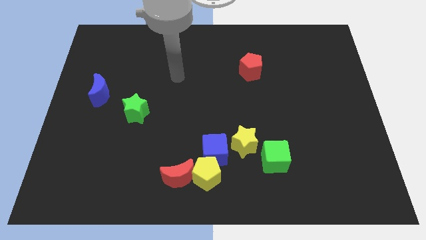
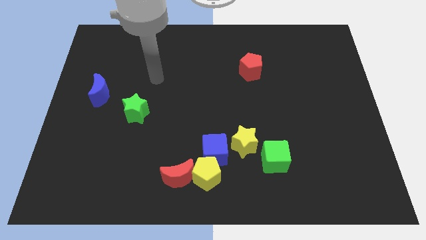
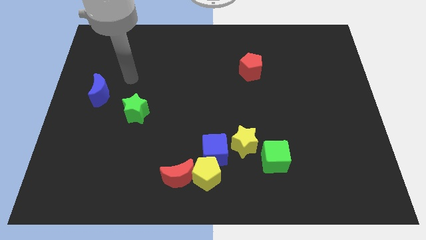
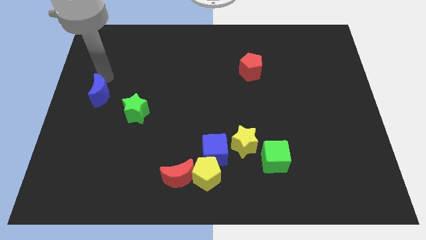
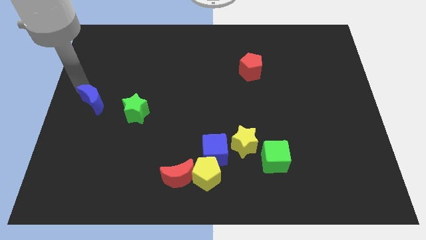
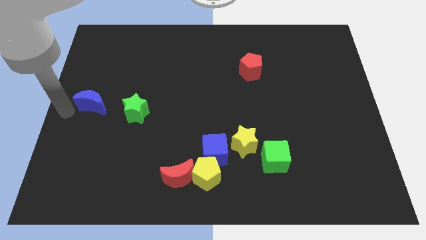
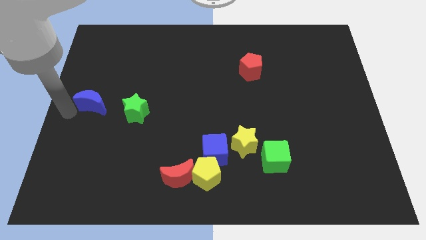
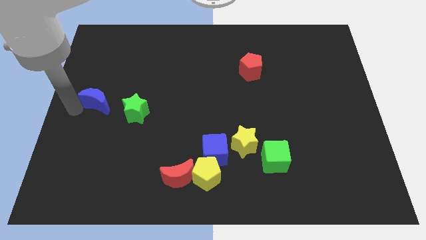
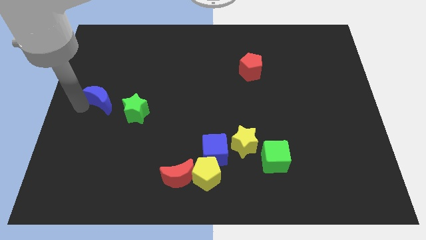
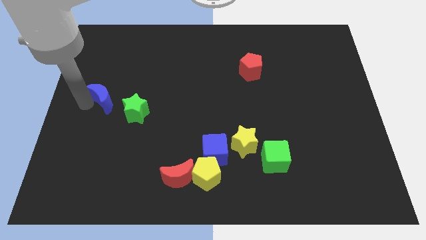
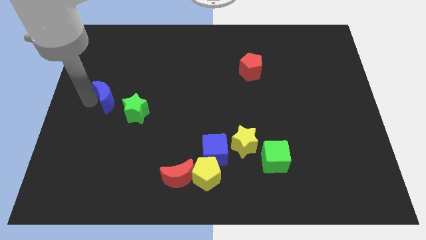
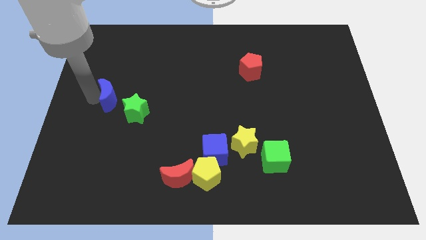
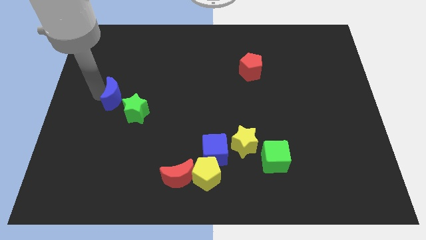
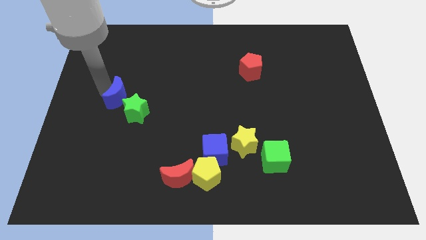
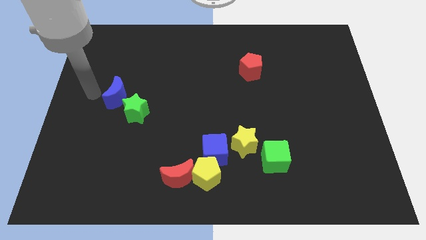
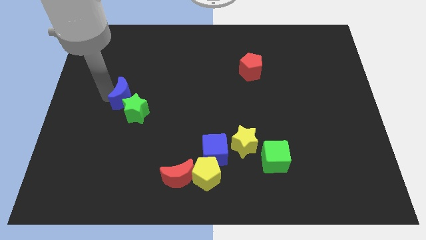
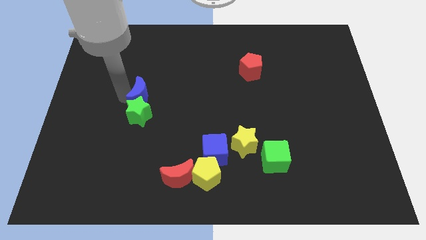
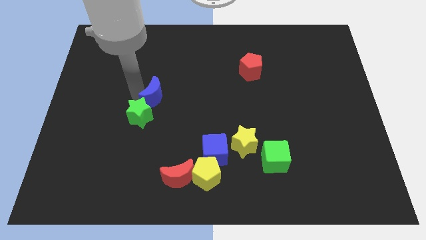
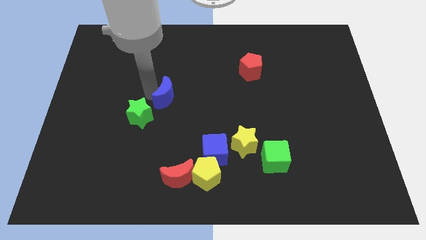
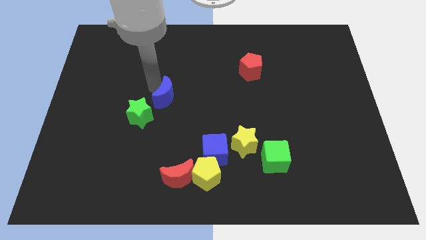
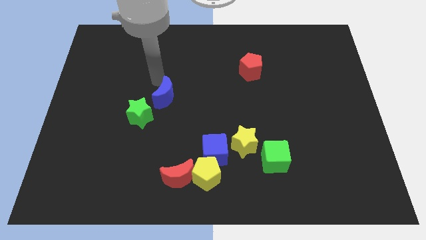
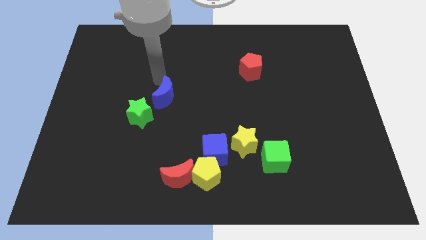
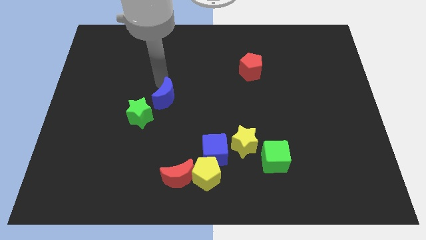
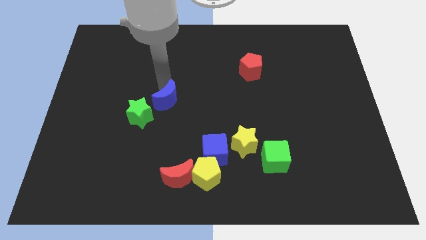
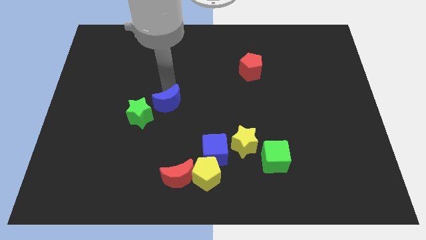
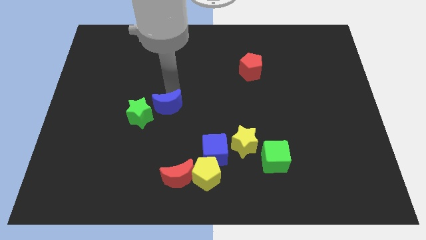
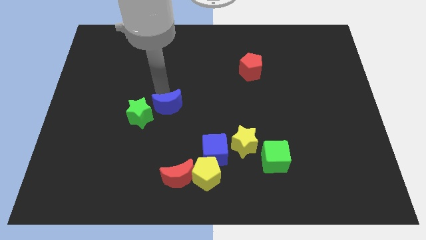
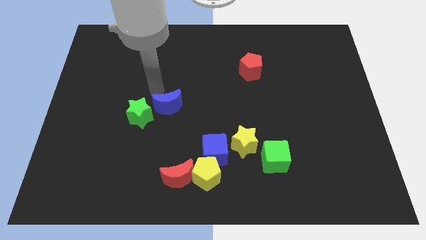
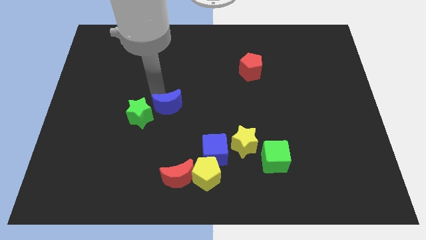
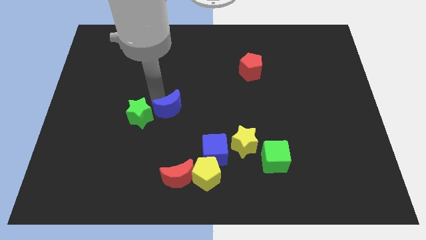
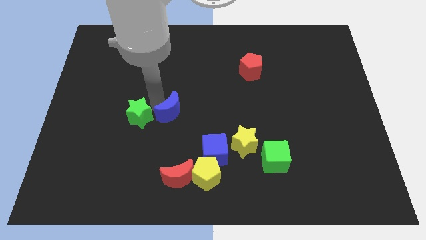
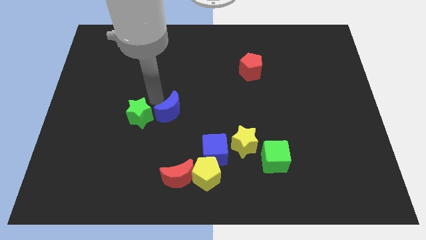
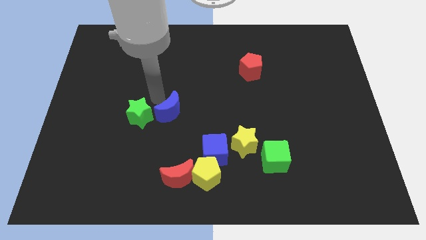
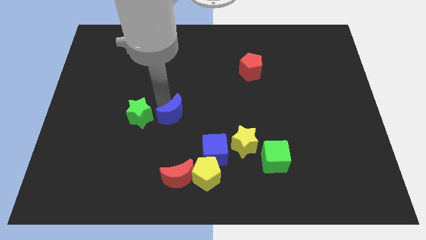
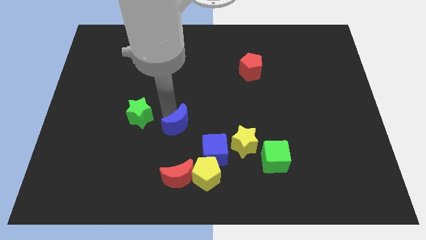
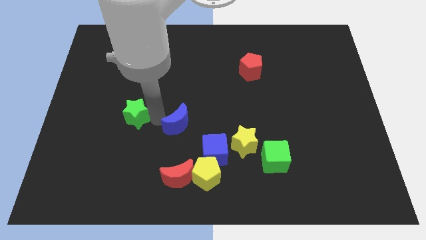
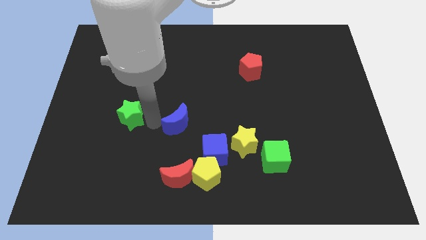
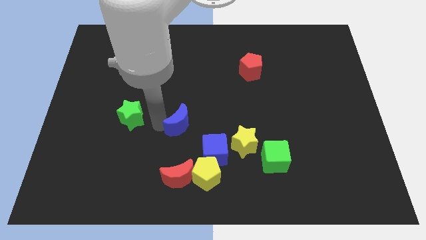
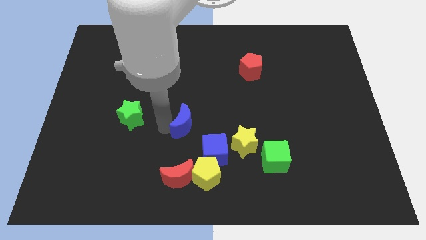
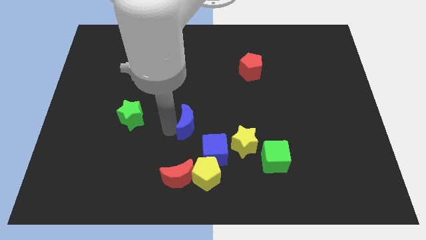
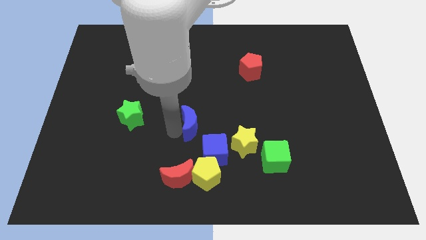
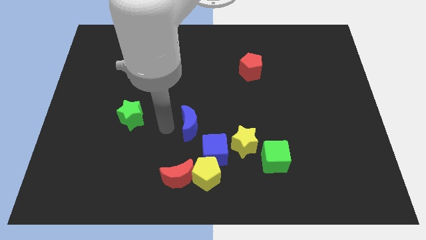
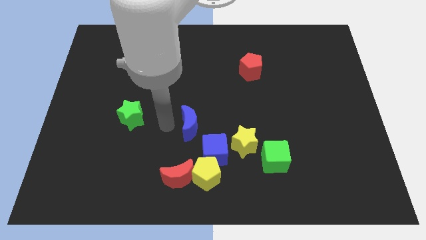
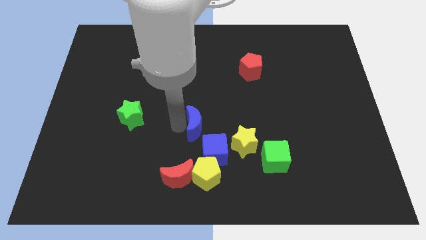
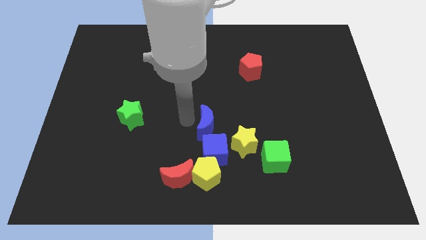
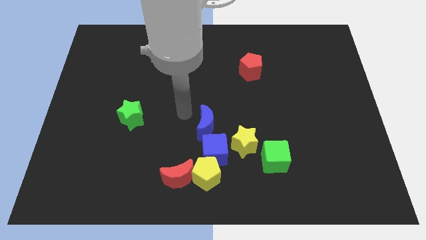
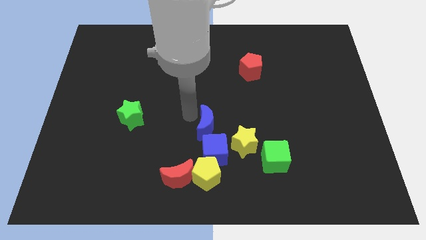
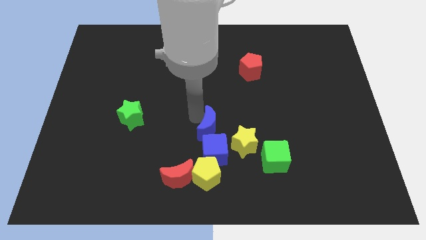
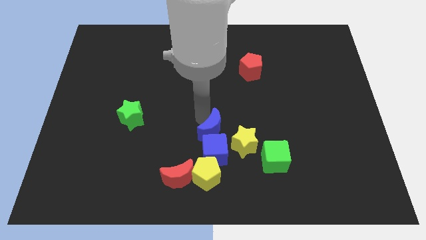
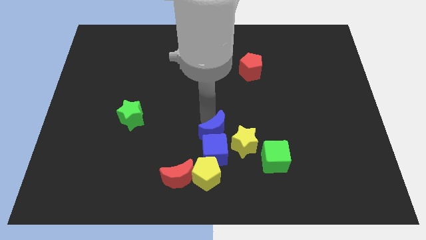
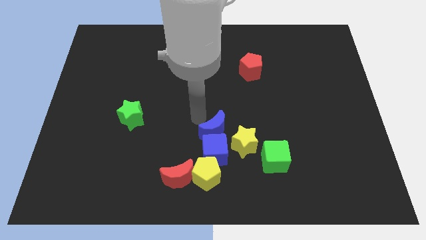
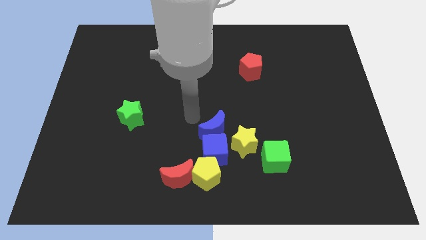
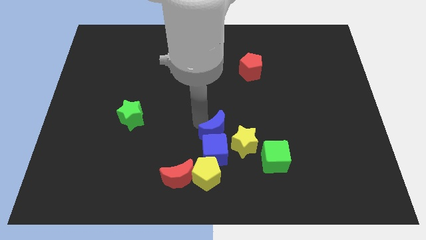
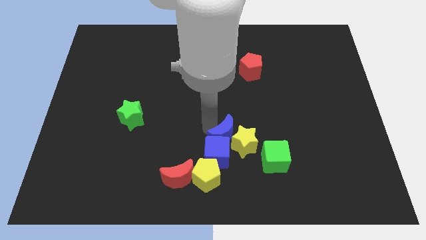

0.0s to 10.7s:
slide the blue moon to the yellow star

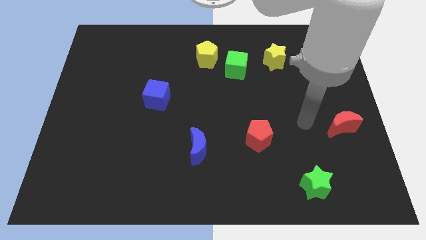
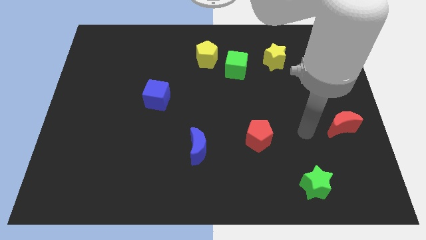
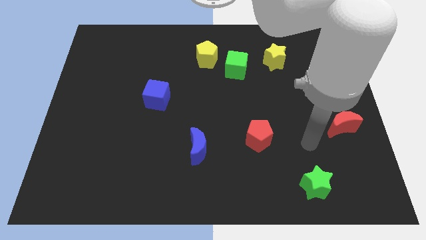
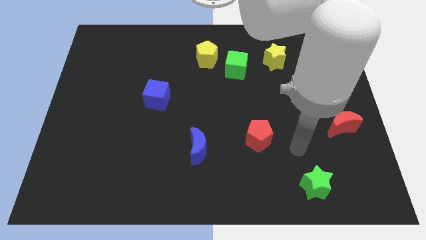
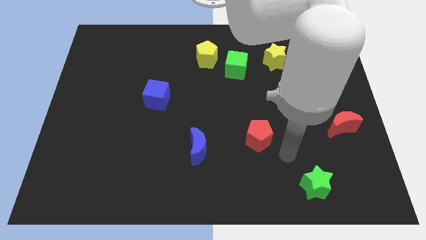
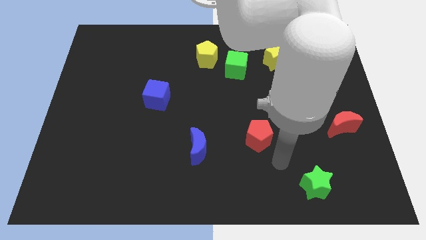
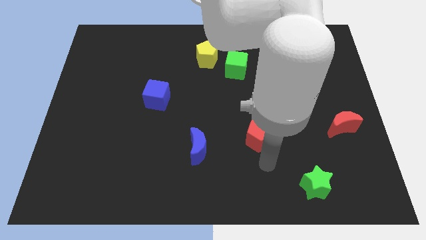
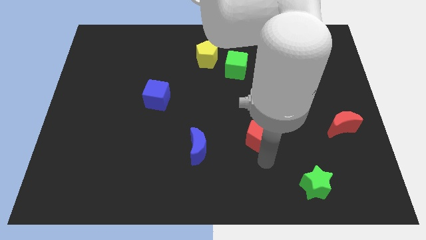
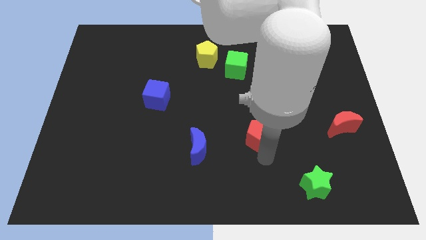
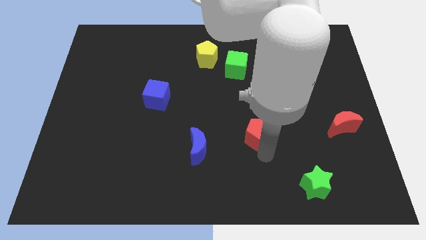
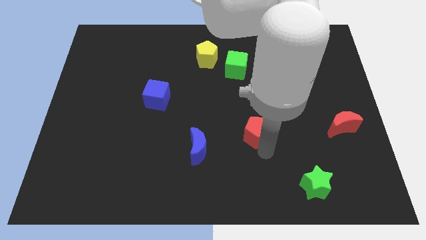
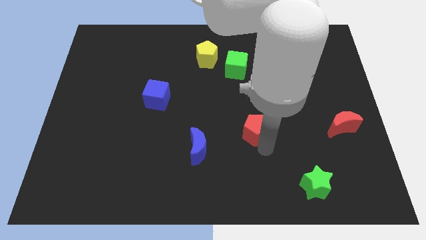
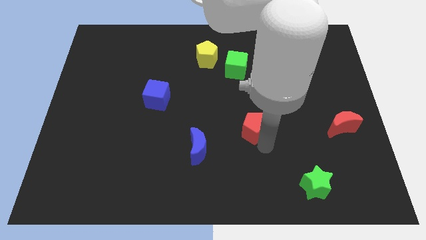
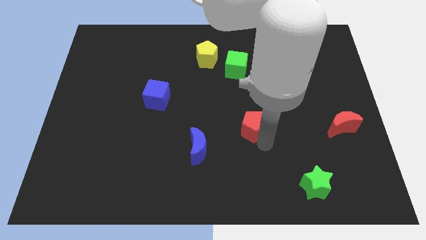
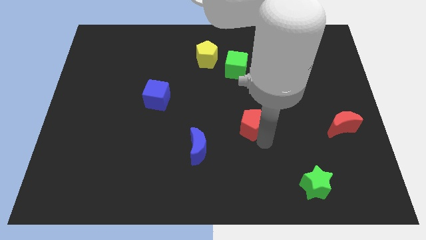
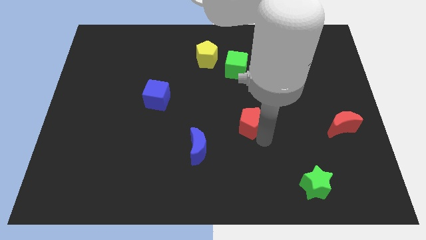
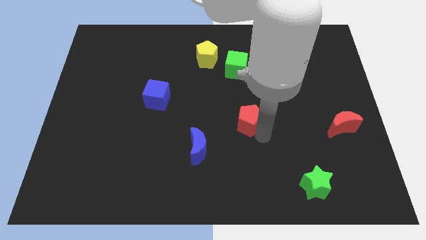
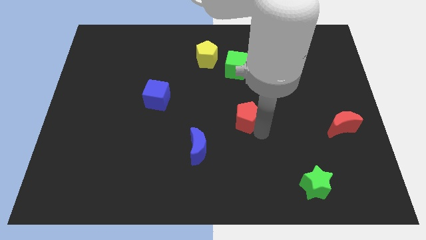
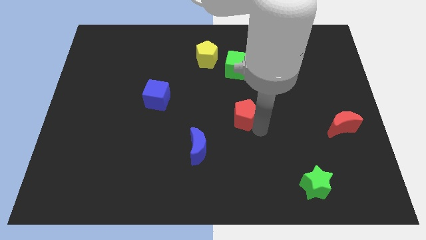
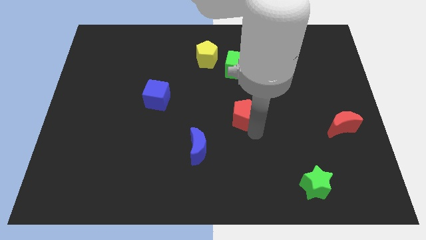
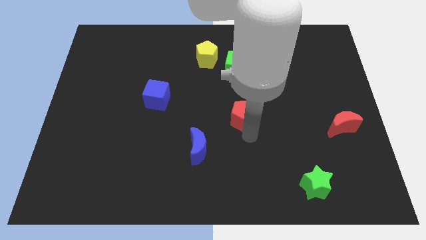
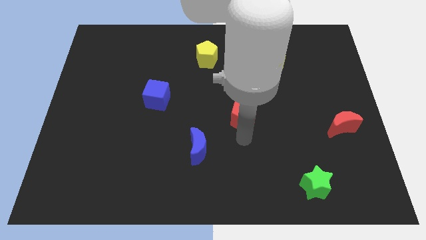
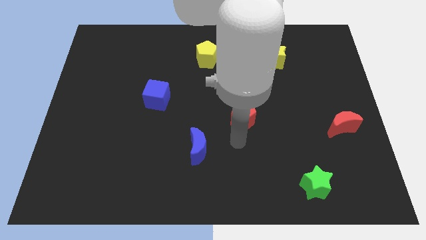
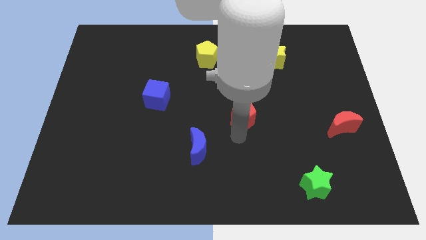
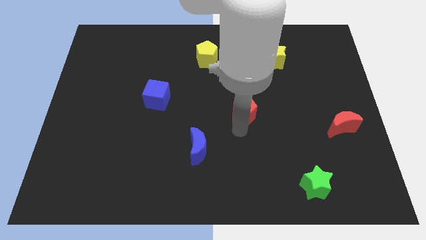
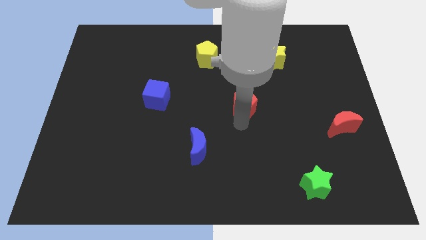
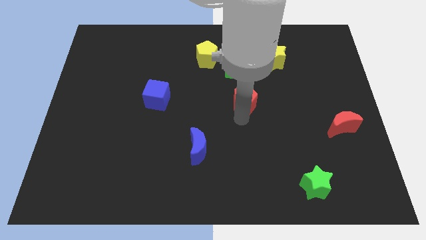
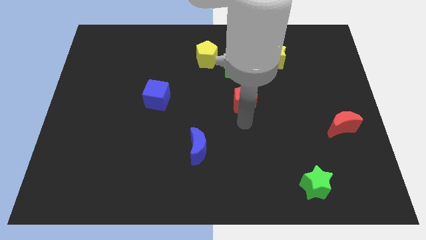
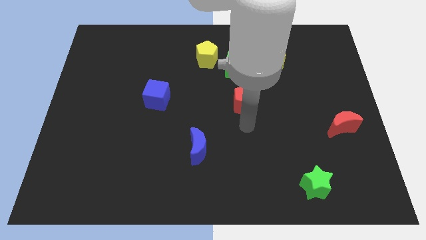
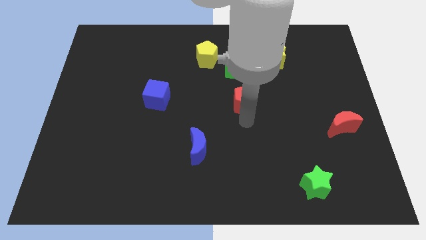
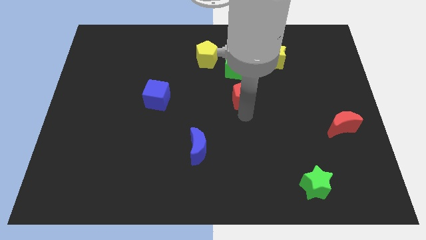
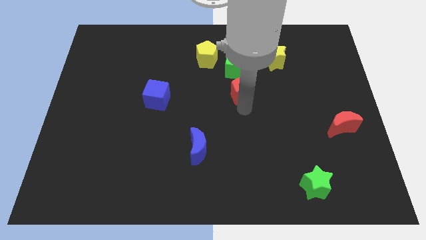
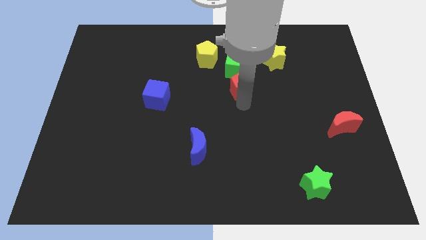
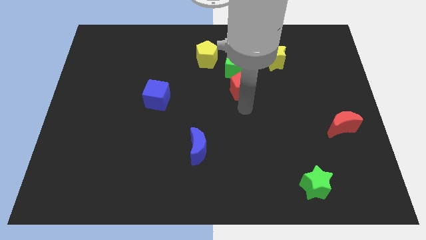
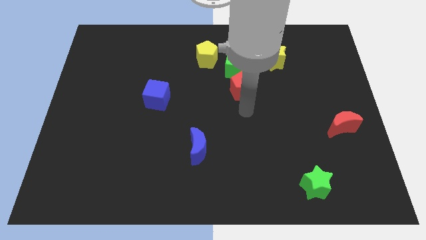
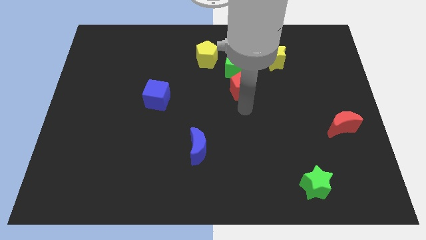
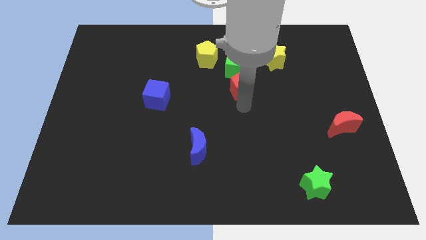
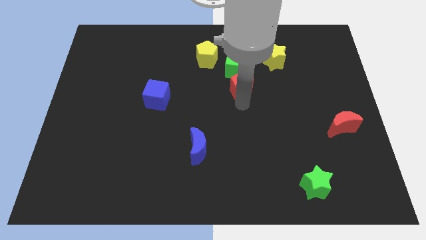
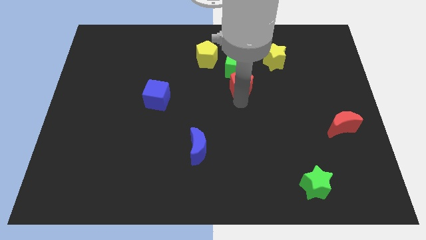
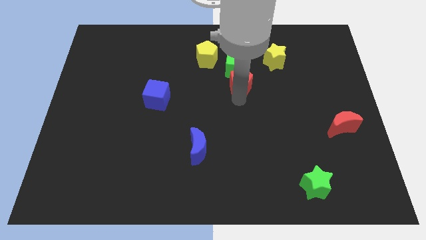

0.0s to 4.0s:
move the red pentagon towards the green cube
